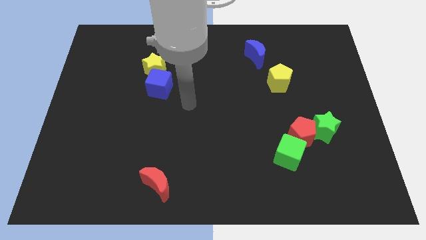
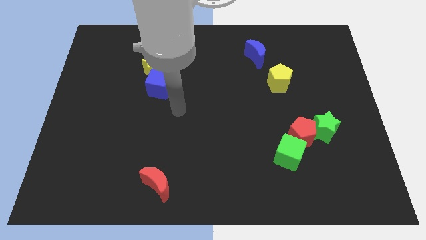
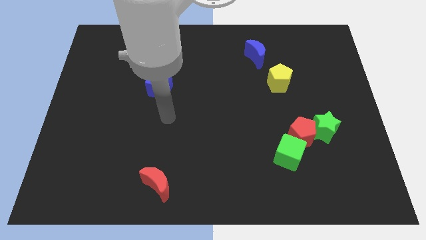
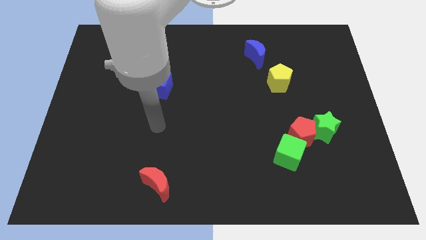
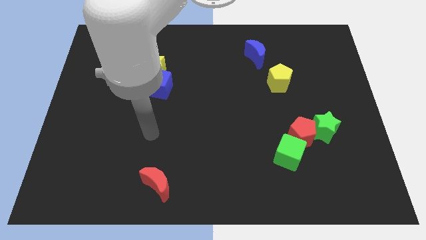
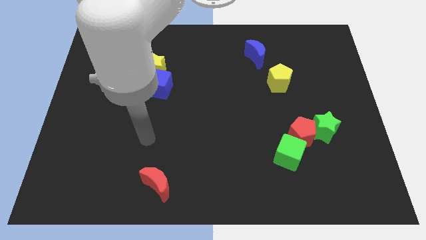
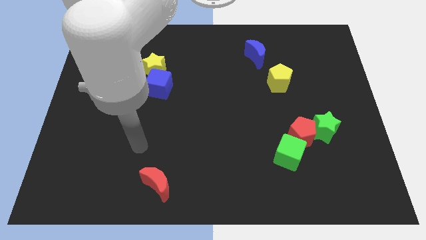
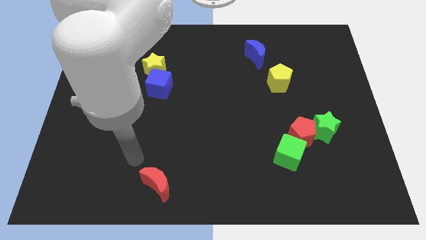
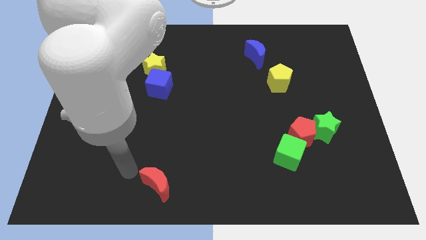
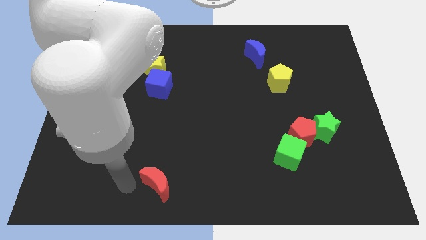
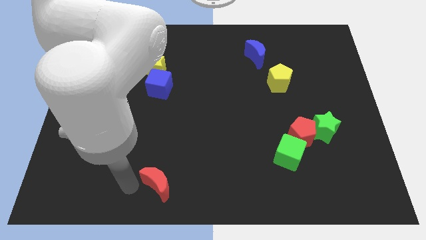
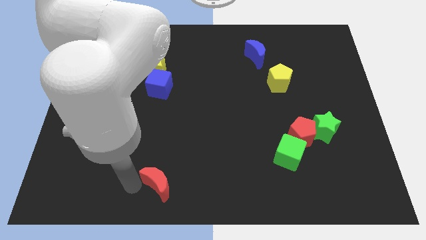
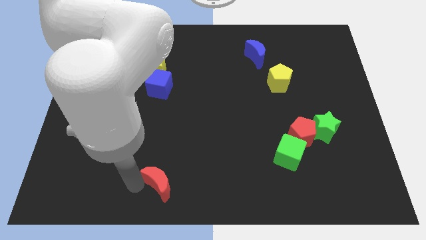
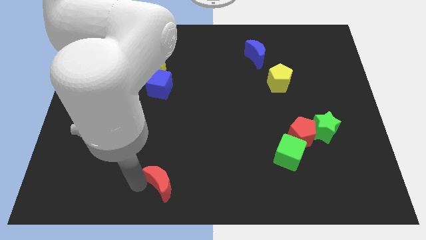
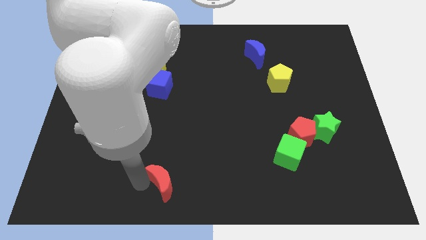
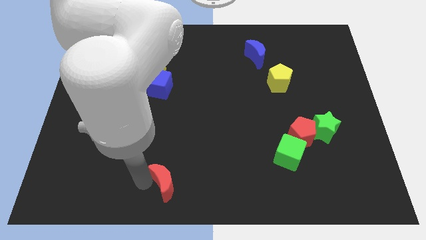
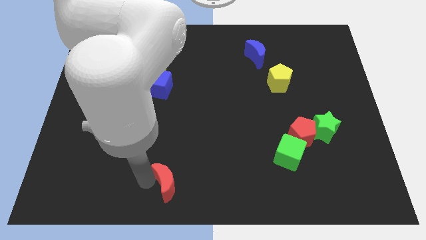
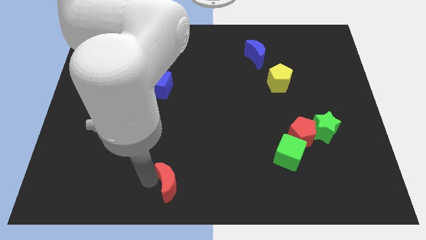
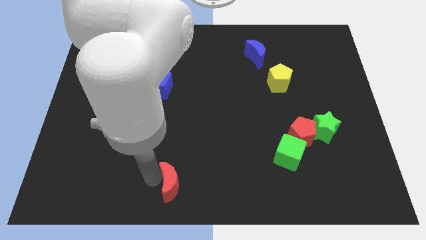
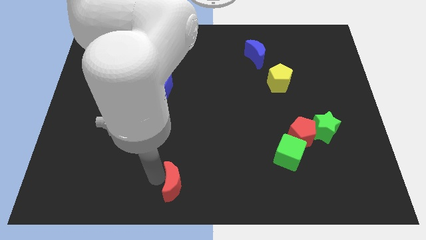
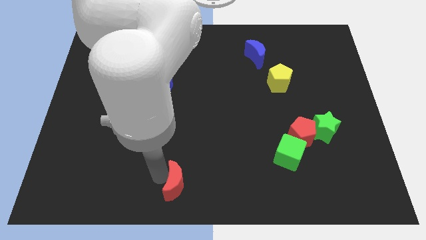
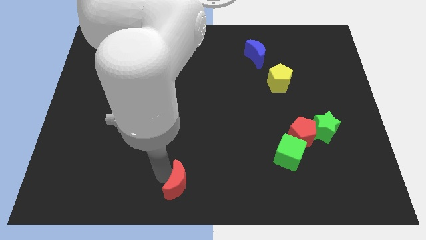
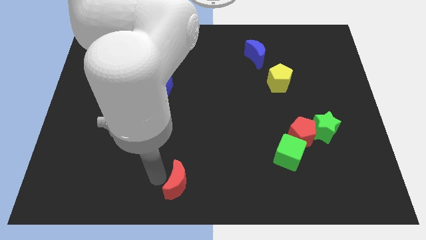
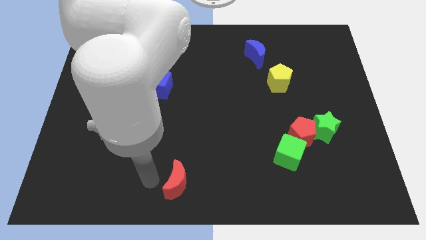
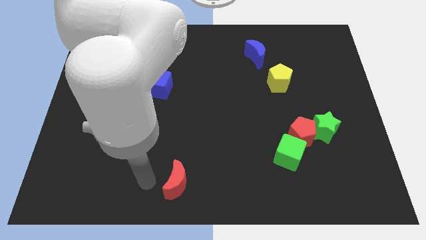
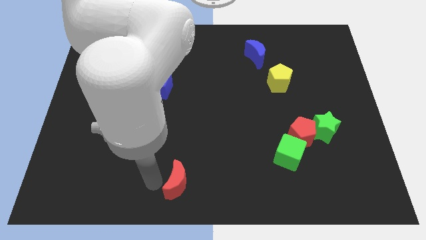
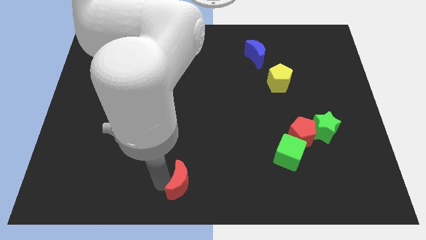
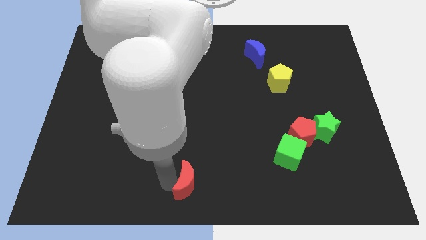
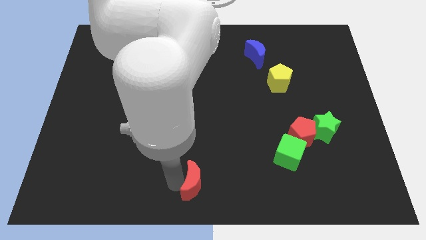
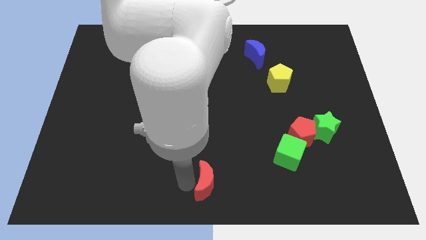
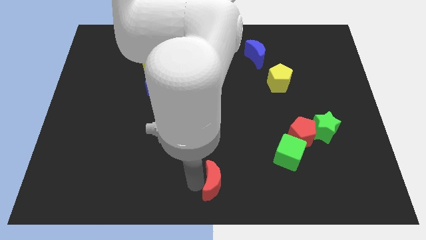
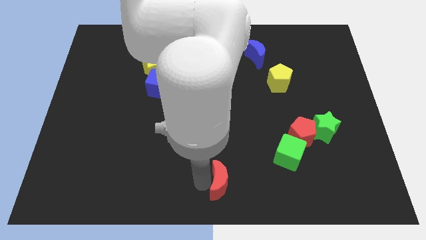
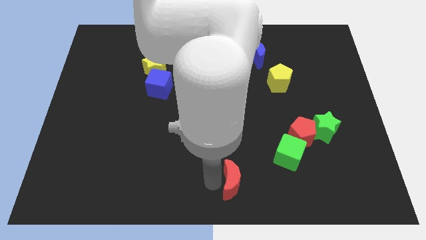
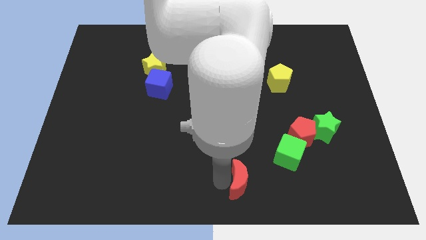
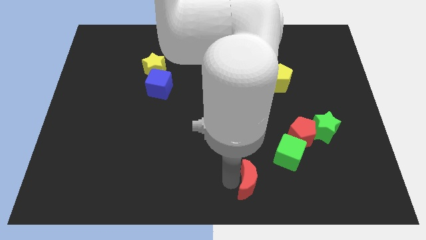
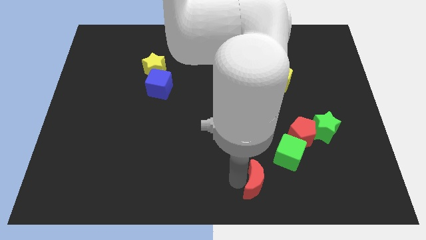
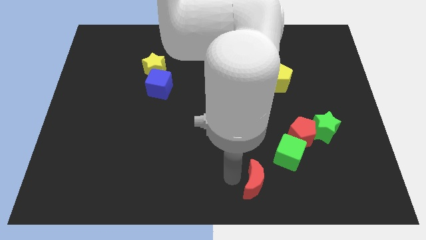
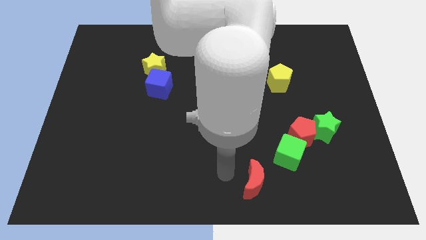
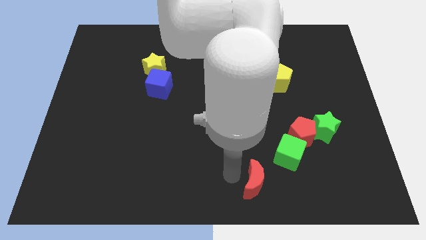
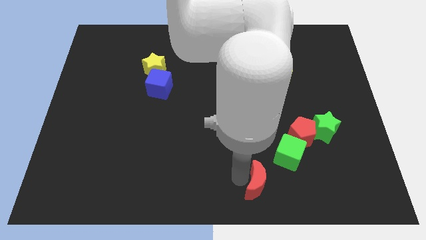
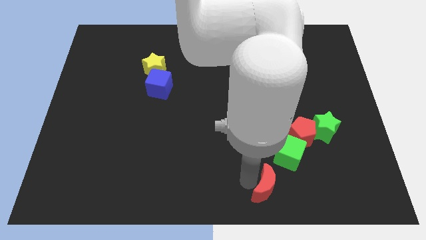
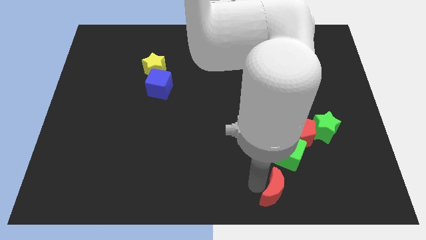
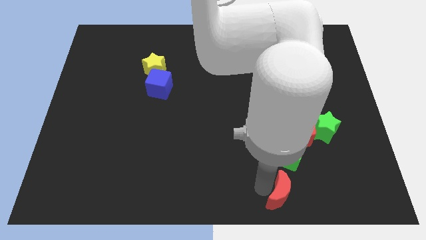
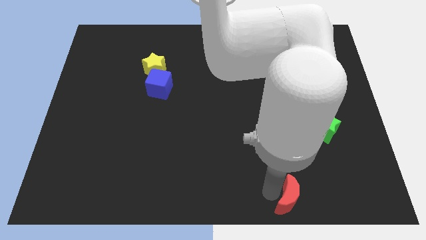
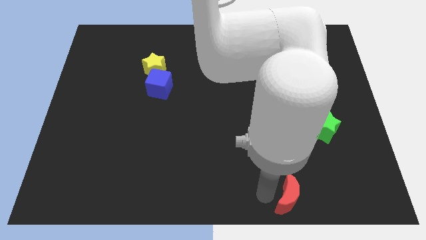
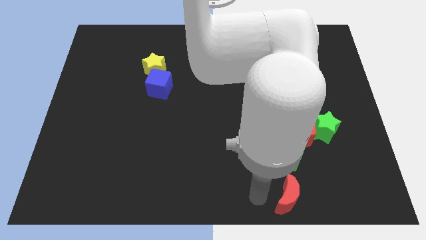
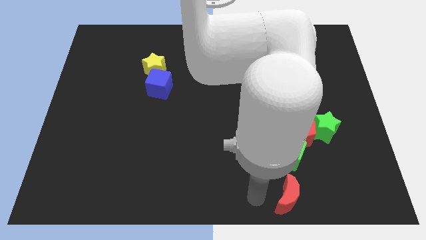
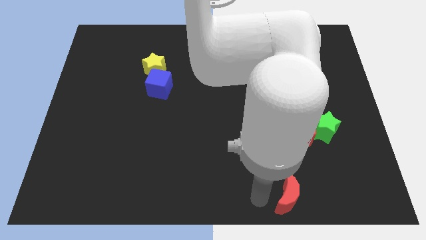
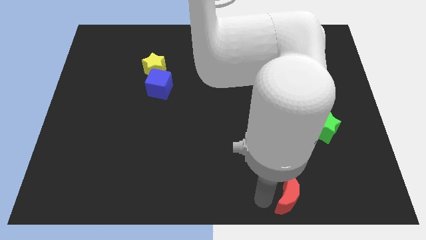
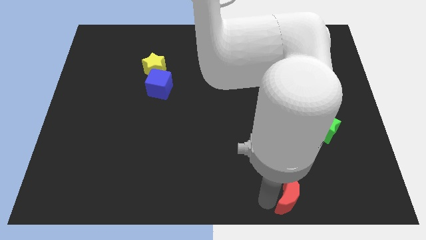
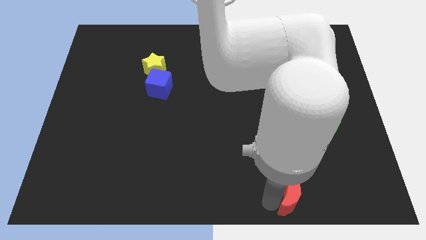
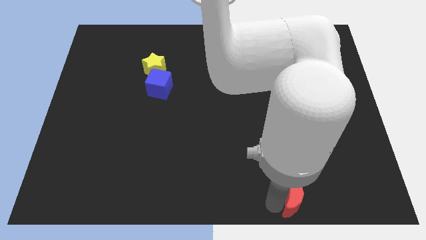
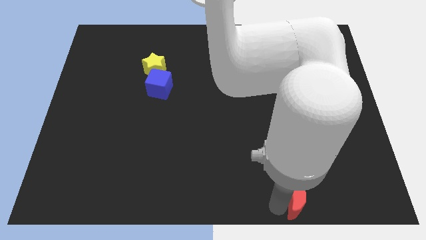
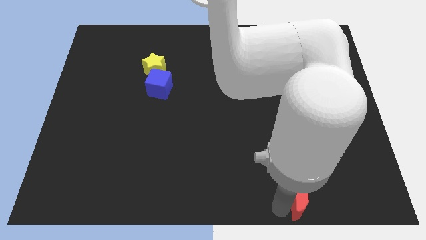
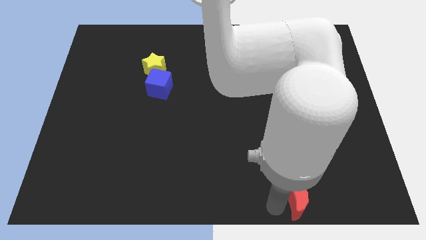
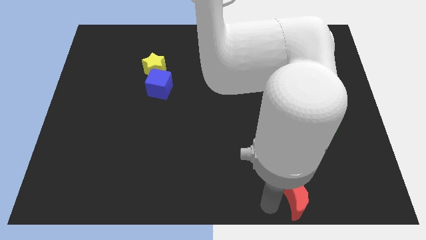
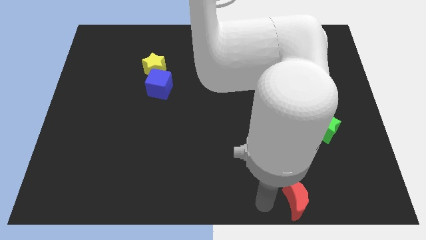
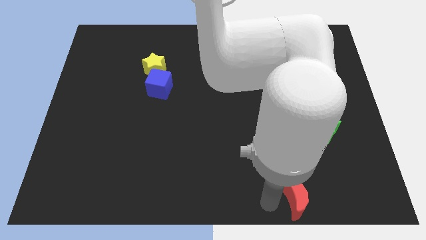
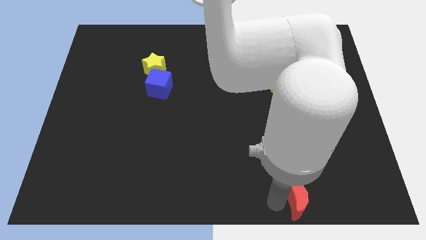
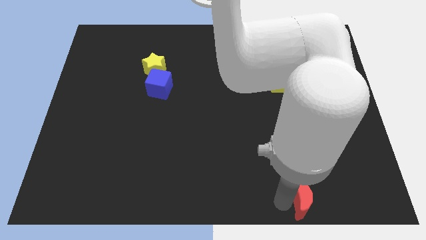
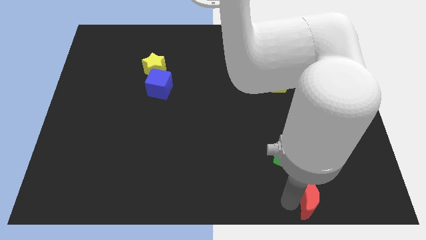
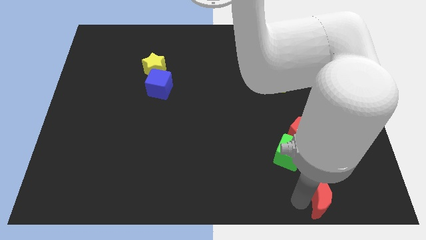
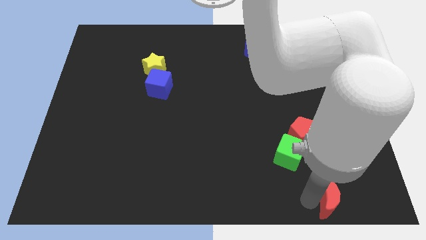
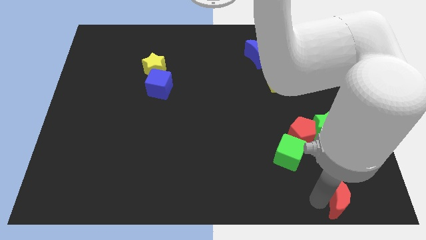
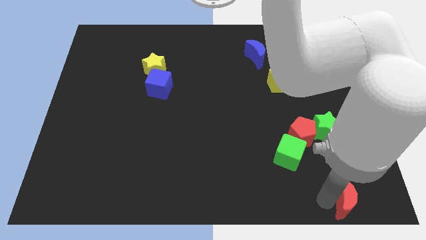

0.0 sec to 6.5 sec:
push the red moon to the bottom right of the board

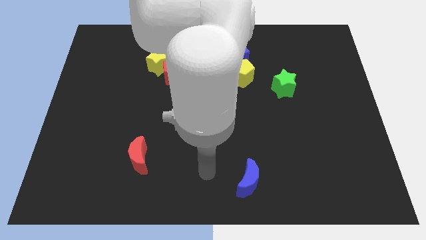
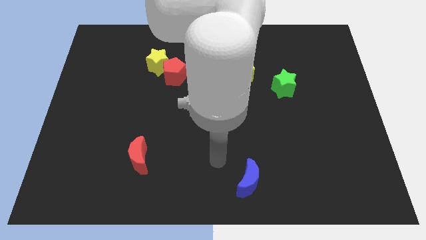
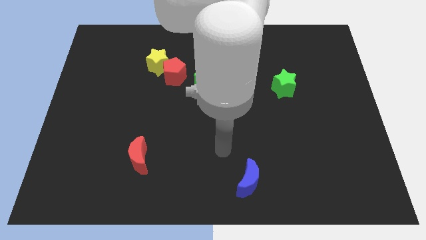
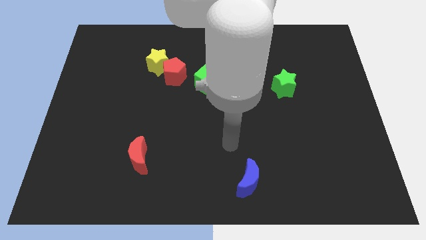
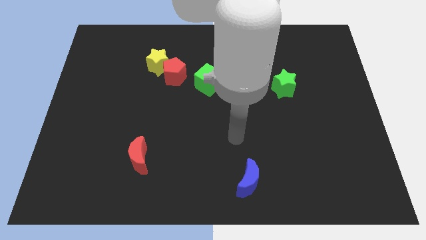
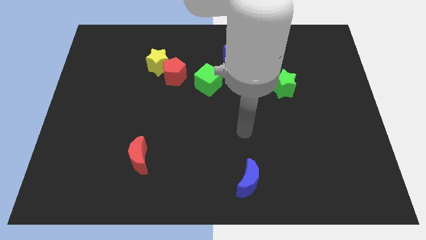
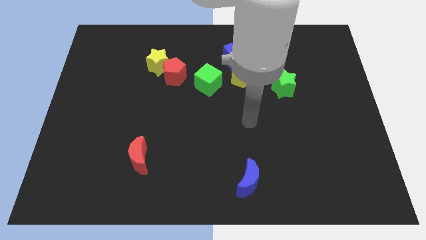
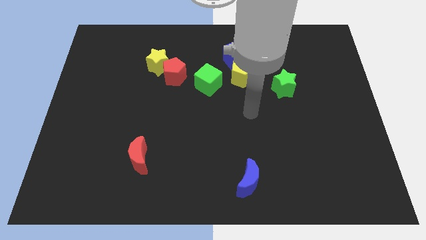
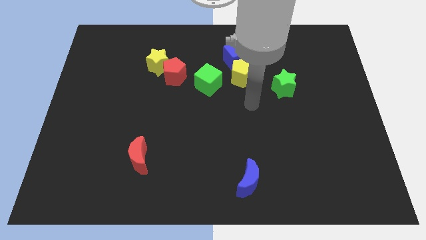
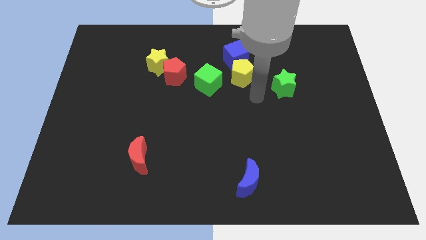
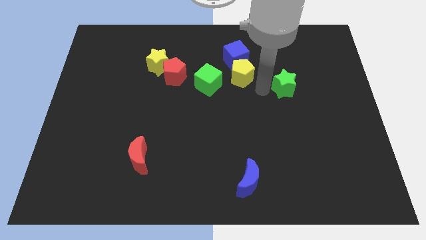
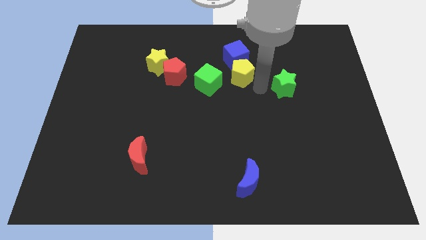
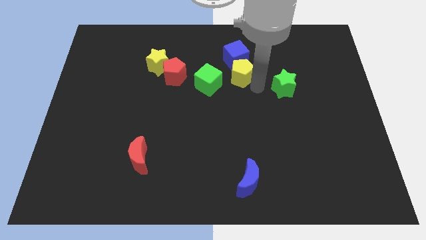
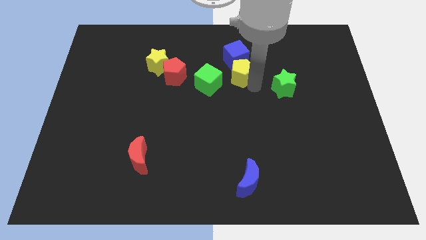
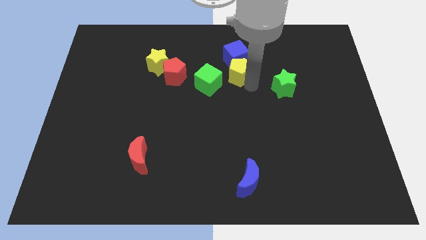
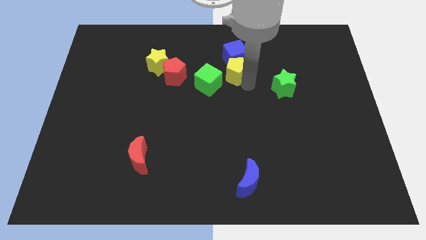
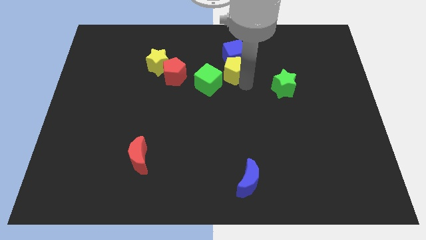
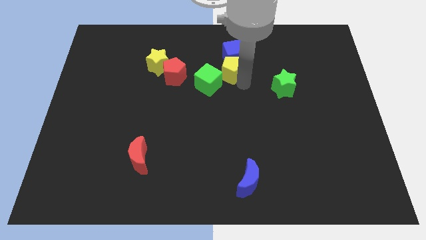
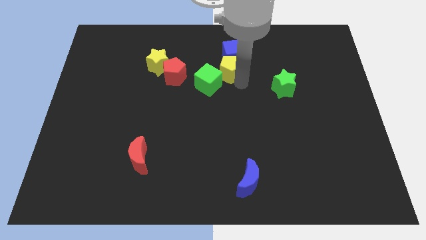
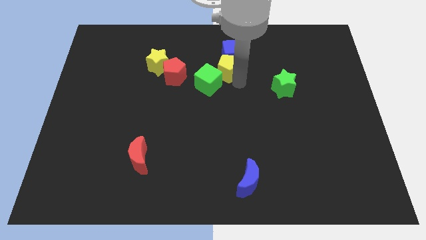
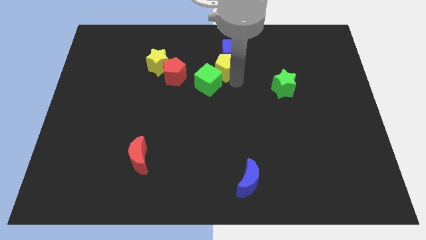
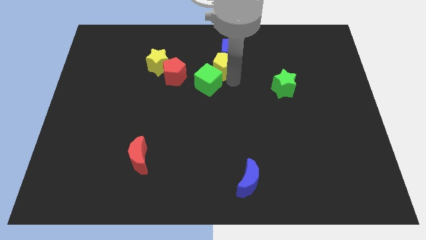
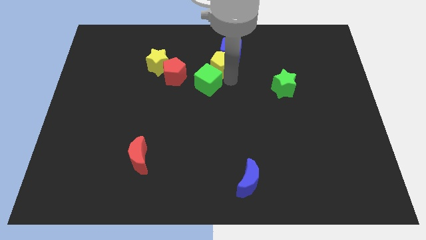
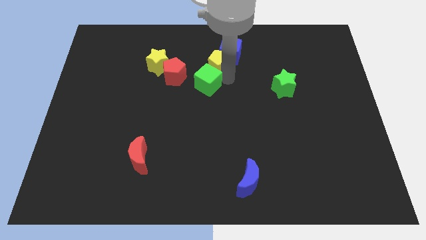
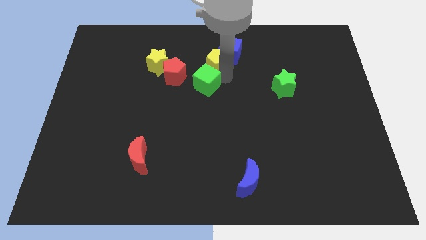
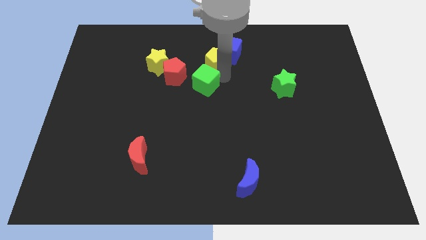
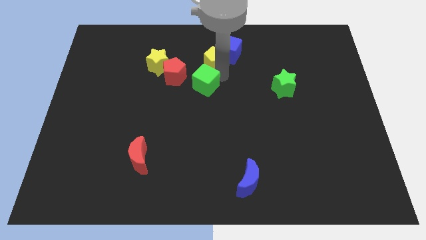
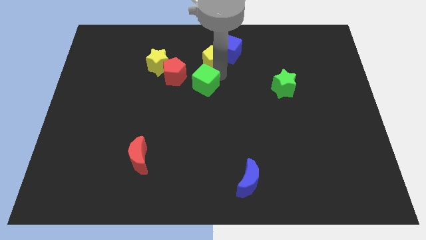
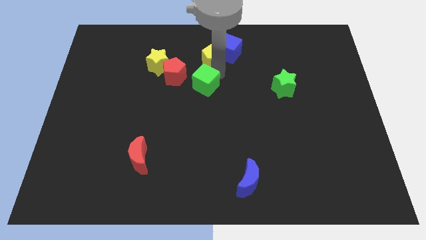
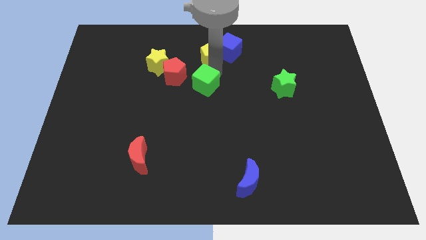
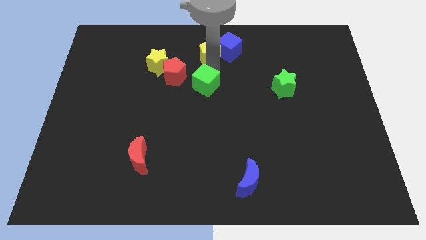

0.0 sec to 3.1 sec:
push the yellow pentagon to the top side
